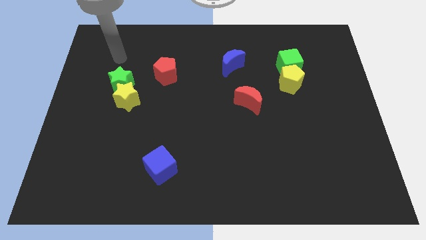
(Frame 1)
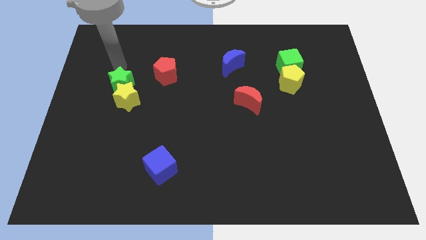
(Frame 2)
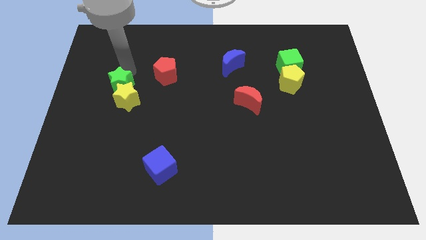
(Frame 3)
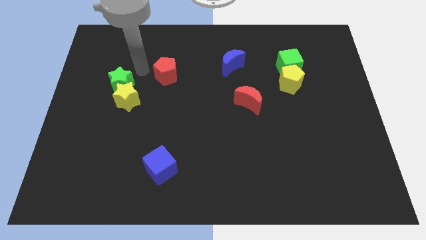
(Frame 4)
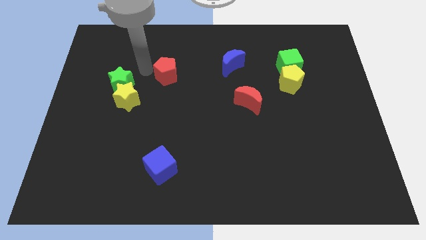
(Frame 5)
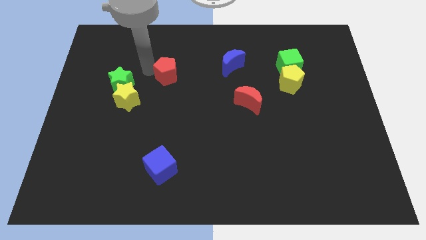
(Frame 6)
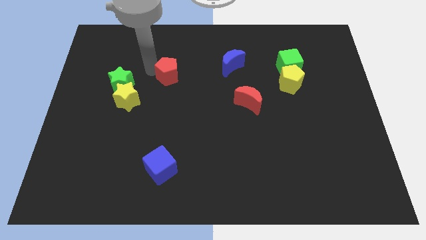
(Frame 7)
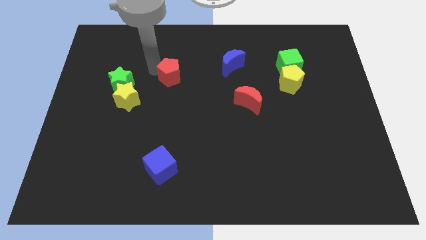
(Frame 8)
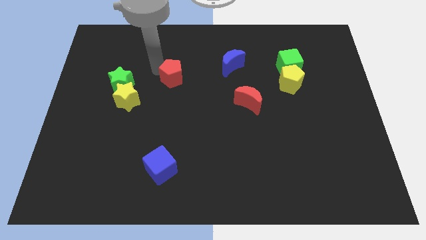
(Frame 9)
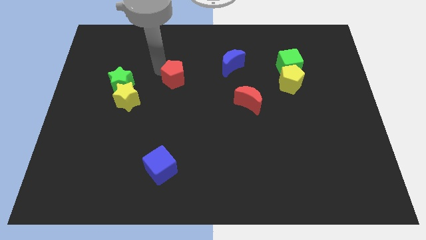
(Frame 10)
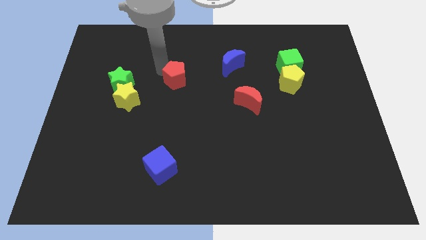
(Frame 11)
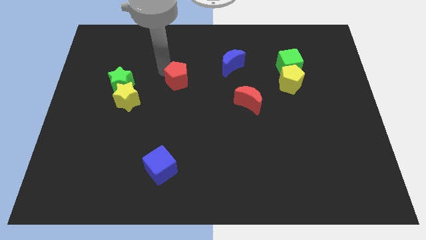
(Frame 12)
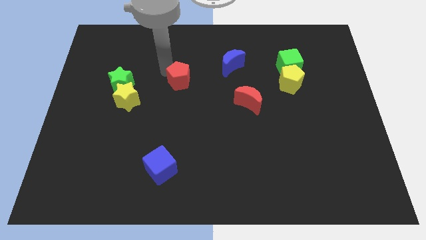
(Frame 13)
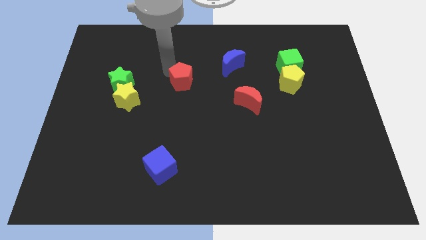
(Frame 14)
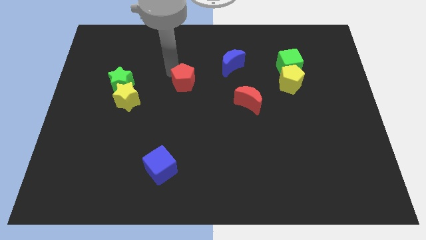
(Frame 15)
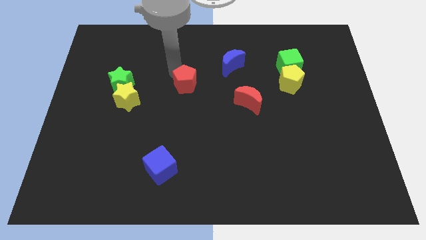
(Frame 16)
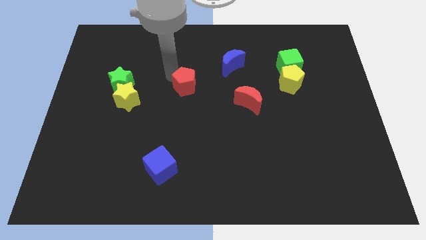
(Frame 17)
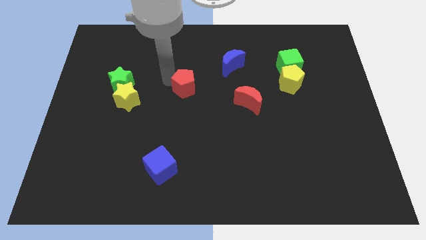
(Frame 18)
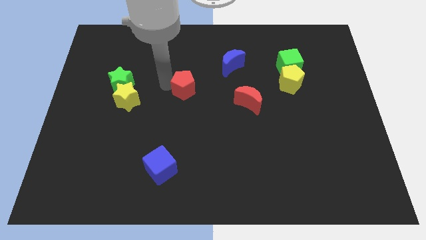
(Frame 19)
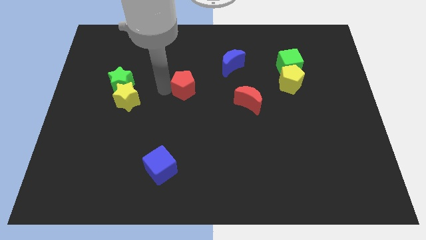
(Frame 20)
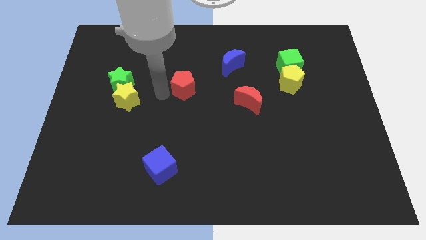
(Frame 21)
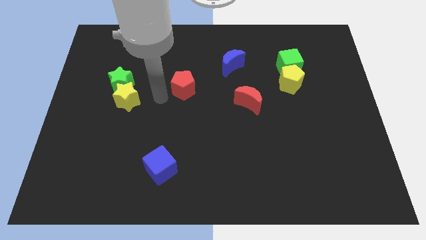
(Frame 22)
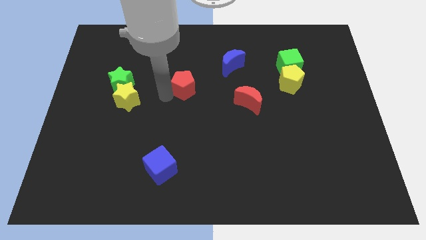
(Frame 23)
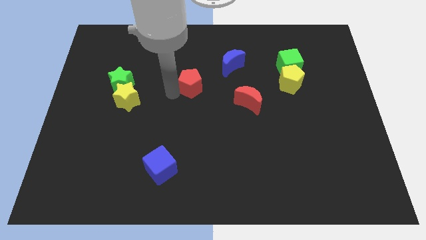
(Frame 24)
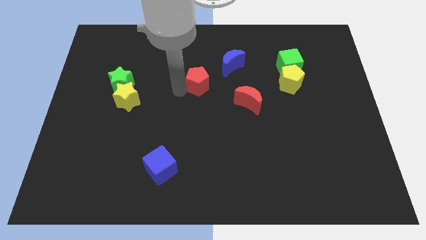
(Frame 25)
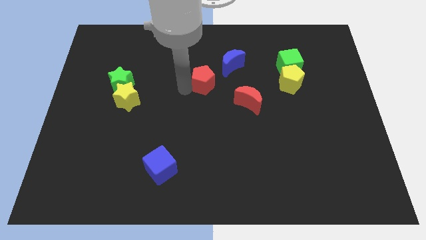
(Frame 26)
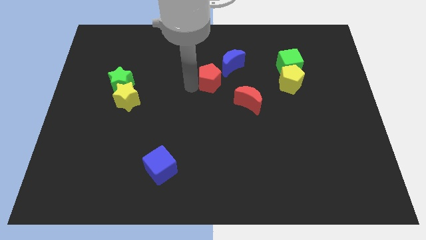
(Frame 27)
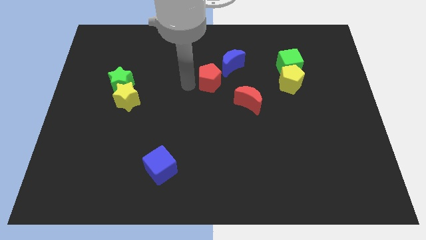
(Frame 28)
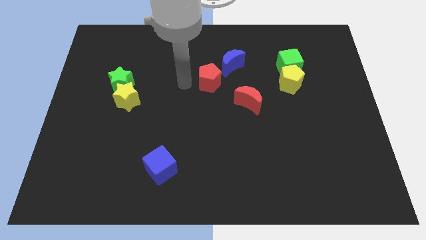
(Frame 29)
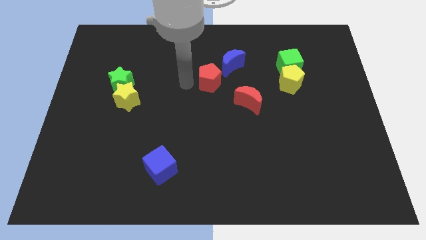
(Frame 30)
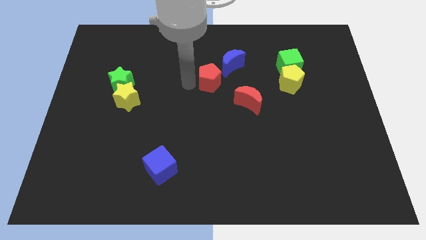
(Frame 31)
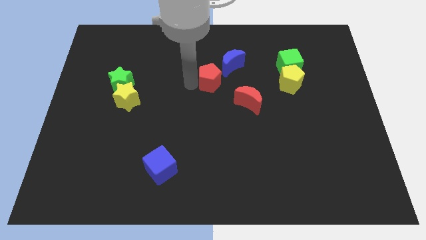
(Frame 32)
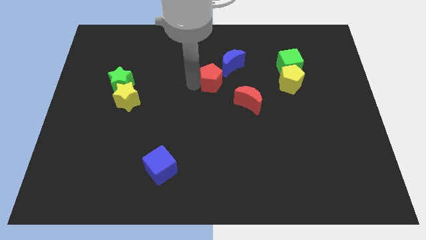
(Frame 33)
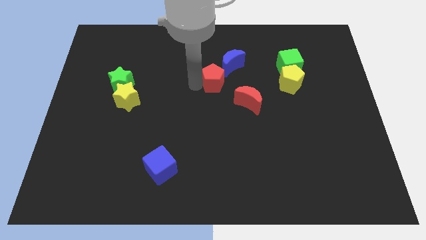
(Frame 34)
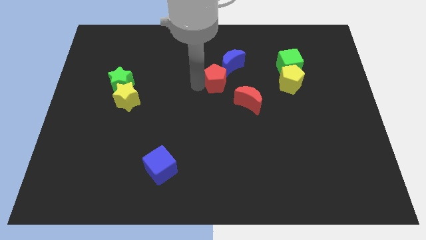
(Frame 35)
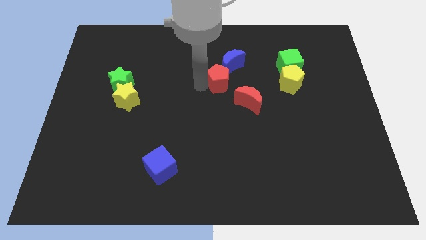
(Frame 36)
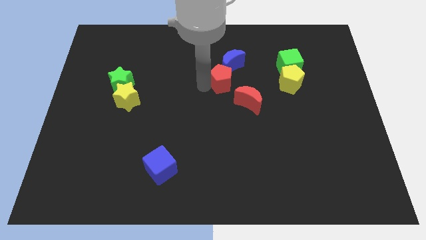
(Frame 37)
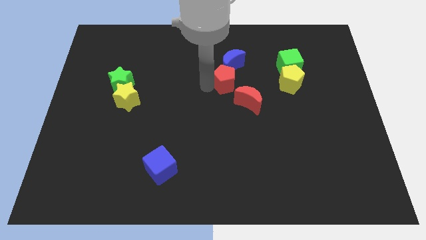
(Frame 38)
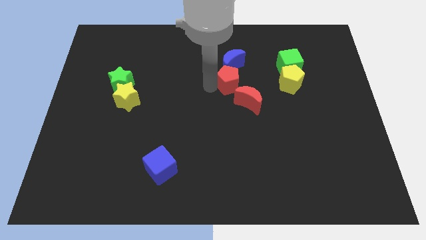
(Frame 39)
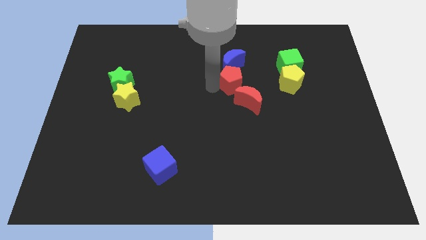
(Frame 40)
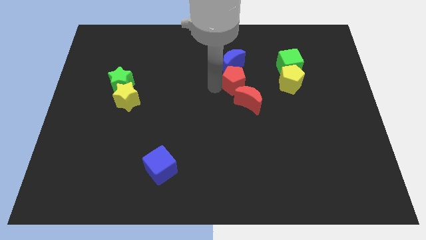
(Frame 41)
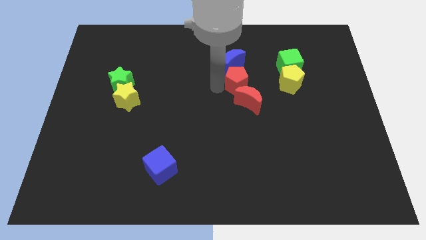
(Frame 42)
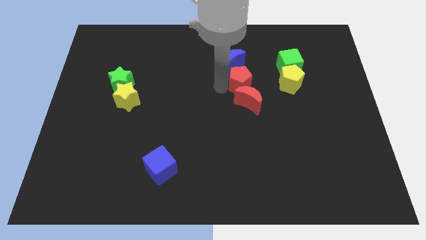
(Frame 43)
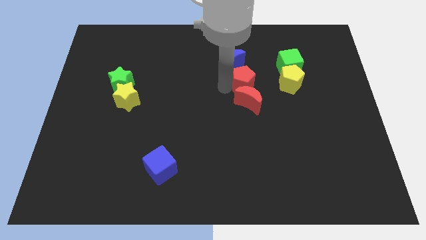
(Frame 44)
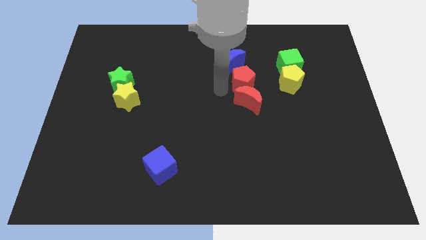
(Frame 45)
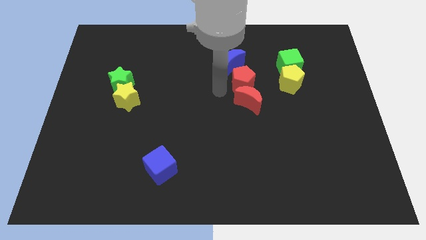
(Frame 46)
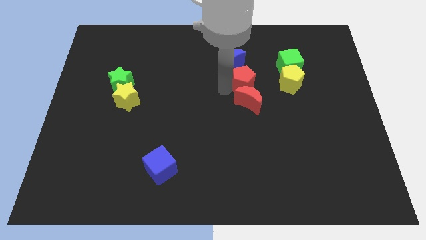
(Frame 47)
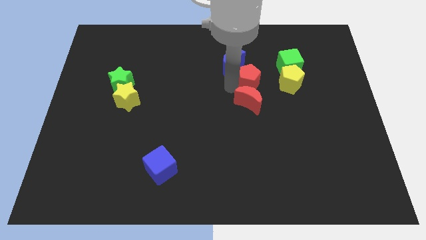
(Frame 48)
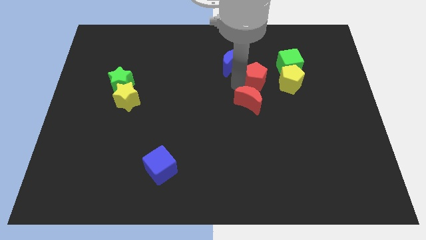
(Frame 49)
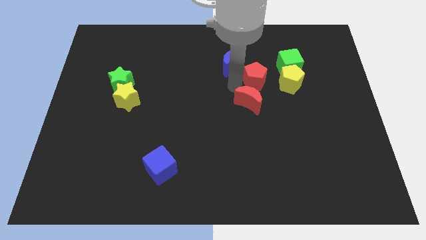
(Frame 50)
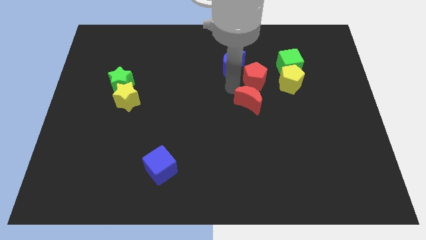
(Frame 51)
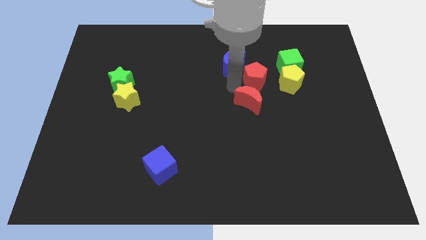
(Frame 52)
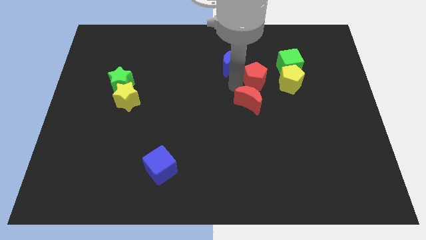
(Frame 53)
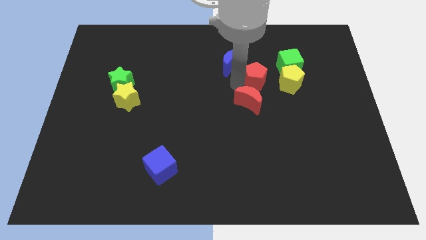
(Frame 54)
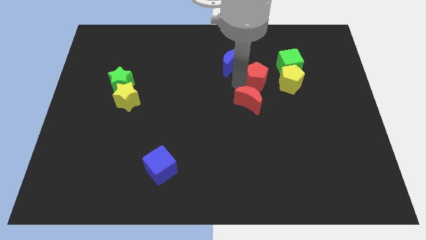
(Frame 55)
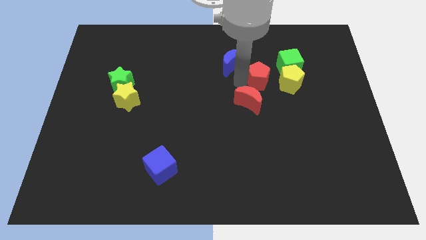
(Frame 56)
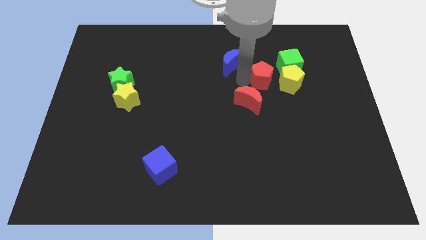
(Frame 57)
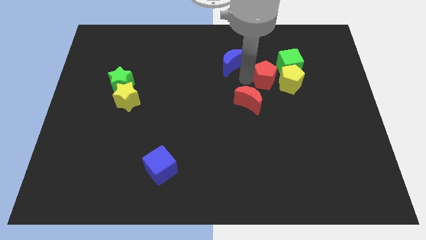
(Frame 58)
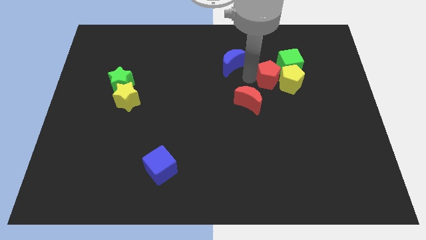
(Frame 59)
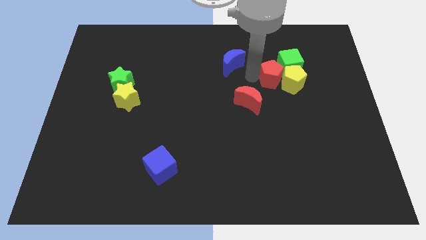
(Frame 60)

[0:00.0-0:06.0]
push the red pentagon towards the green cube

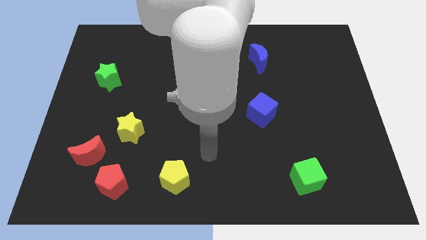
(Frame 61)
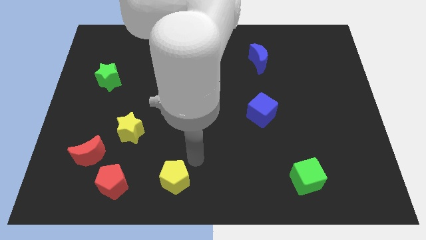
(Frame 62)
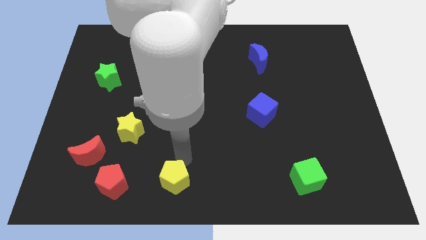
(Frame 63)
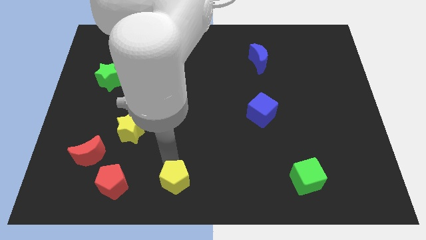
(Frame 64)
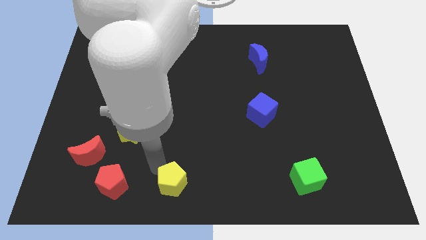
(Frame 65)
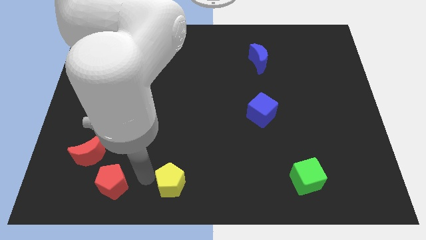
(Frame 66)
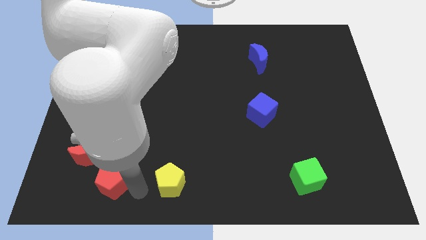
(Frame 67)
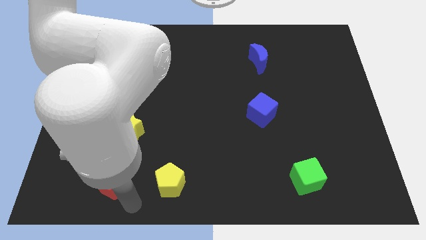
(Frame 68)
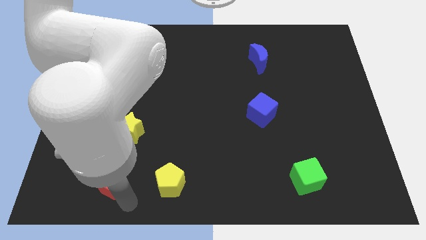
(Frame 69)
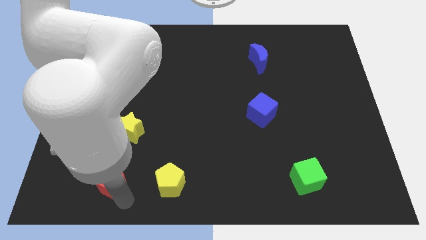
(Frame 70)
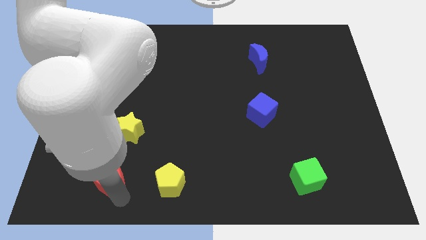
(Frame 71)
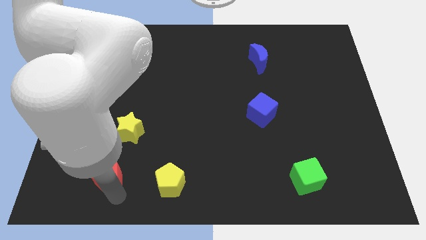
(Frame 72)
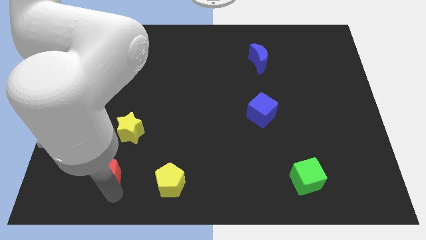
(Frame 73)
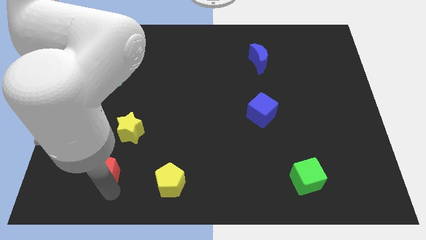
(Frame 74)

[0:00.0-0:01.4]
put the red pentagon close to the red moon
